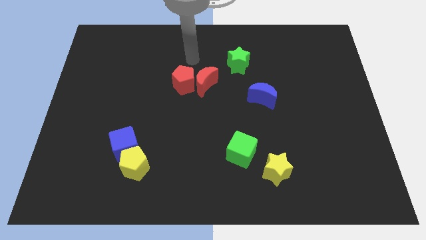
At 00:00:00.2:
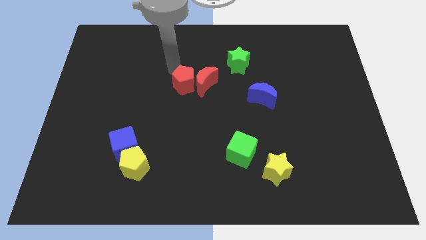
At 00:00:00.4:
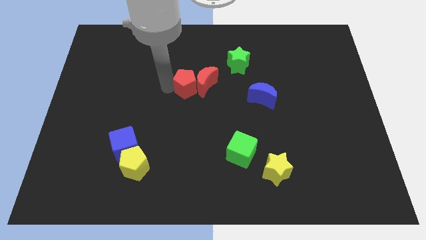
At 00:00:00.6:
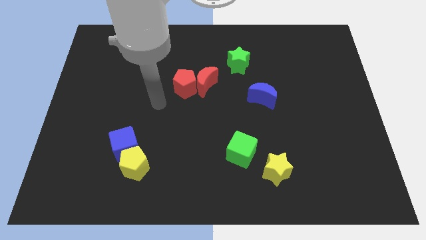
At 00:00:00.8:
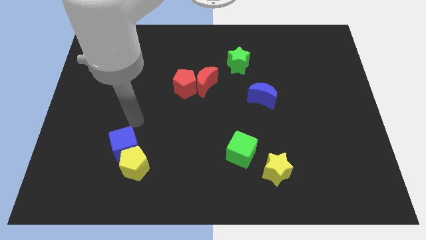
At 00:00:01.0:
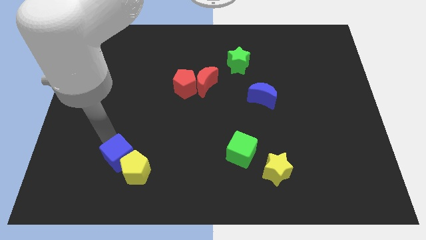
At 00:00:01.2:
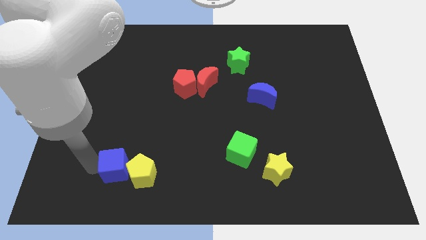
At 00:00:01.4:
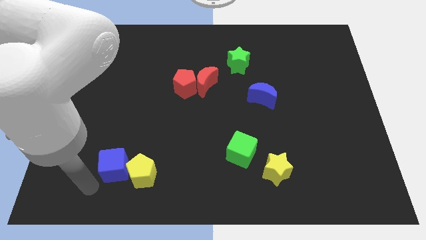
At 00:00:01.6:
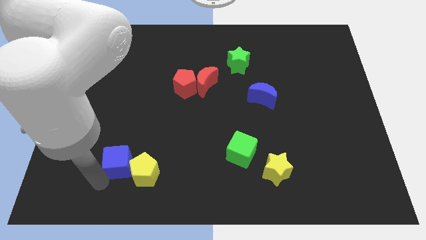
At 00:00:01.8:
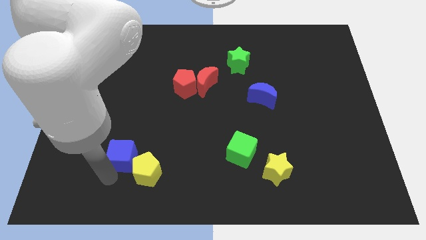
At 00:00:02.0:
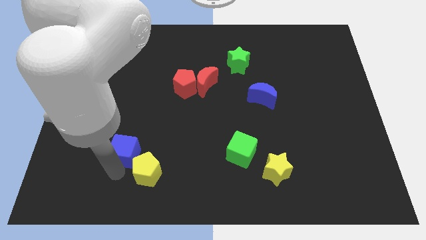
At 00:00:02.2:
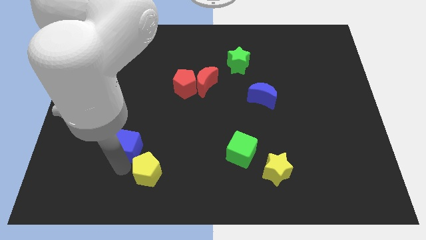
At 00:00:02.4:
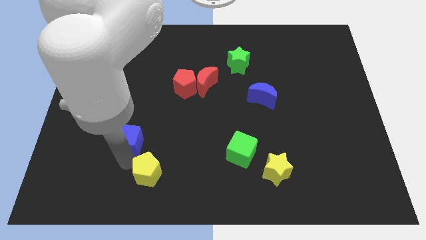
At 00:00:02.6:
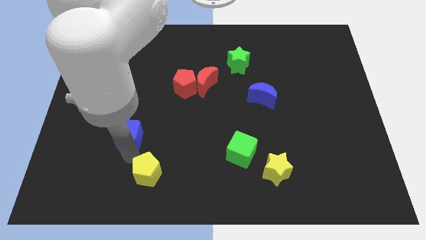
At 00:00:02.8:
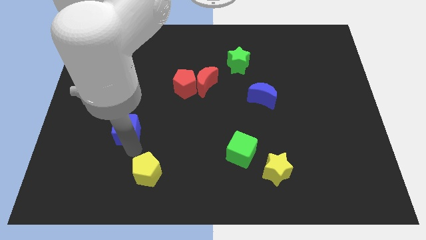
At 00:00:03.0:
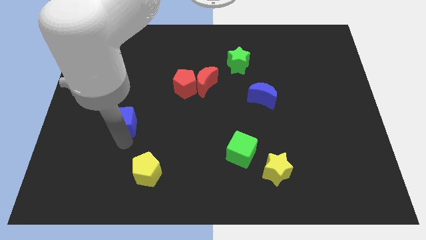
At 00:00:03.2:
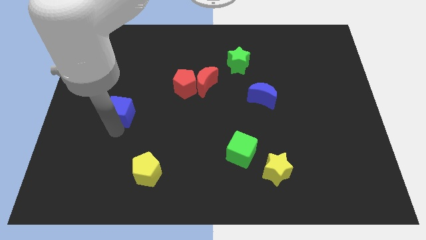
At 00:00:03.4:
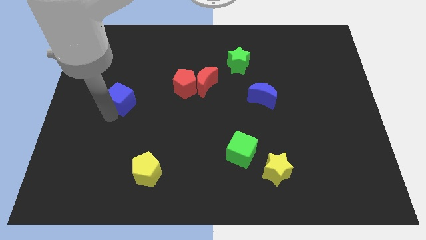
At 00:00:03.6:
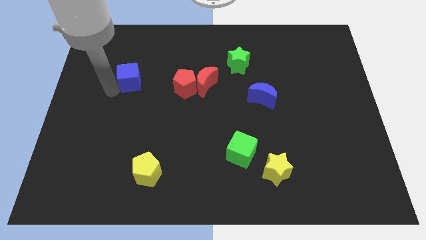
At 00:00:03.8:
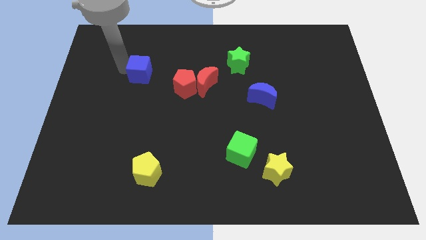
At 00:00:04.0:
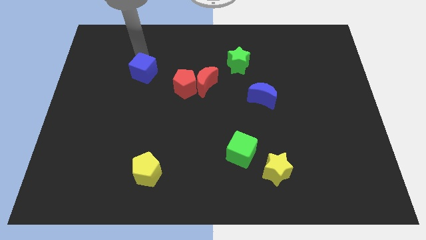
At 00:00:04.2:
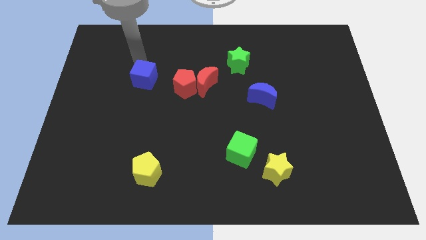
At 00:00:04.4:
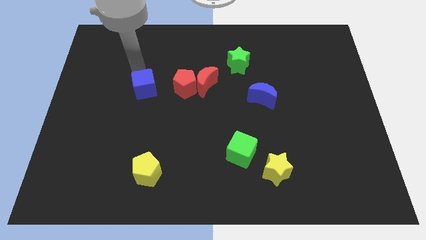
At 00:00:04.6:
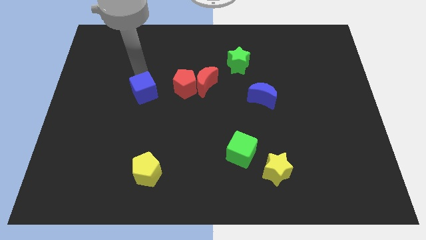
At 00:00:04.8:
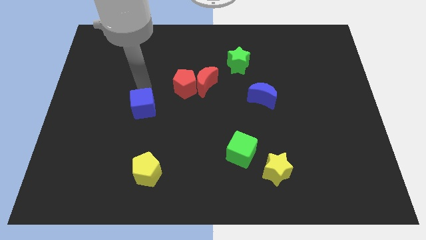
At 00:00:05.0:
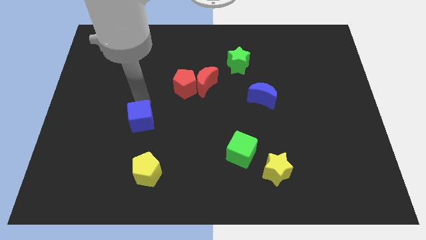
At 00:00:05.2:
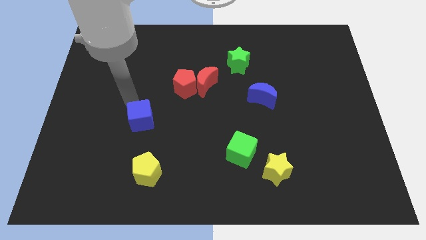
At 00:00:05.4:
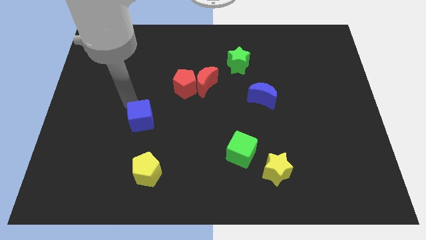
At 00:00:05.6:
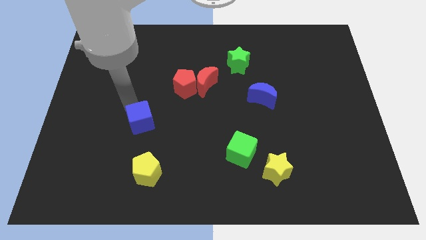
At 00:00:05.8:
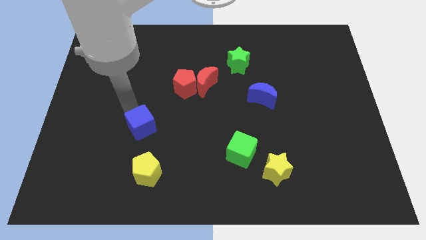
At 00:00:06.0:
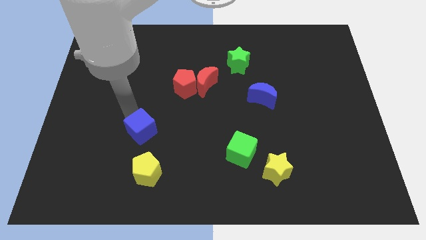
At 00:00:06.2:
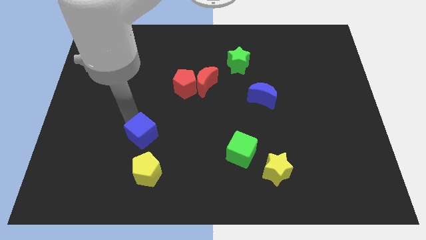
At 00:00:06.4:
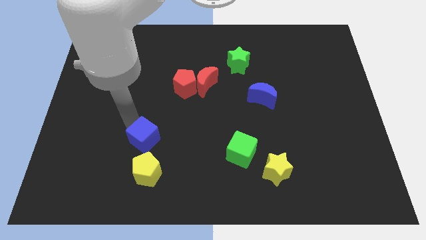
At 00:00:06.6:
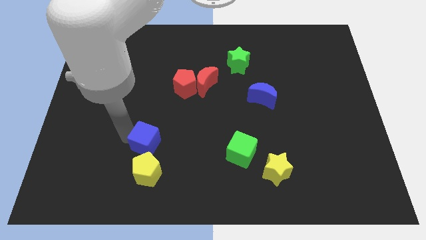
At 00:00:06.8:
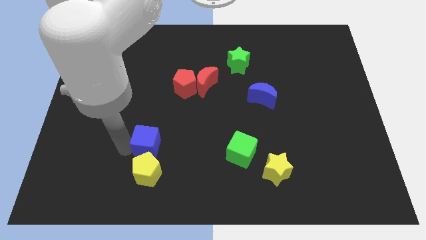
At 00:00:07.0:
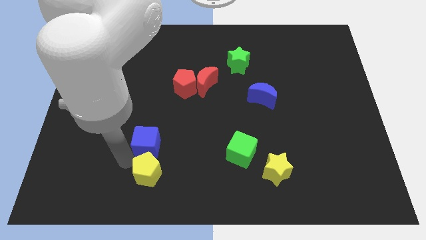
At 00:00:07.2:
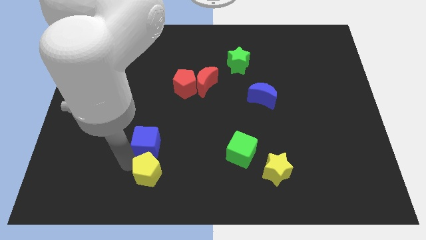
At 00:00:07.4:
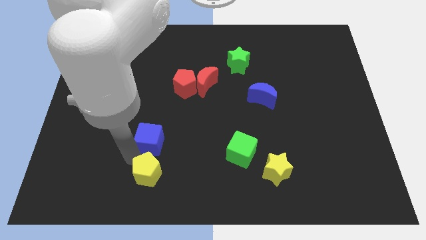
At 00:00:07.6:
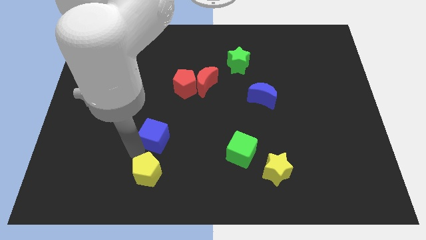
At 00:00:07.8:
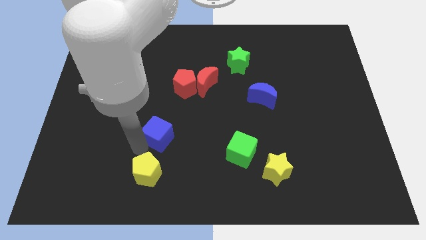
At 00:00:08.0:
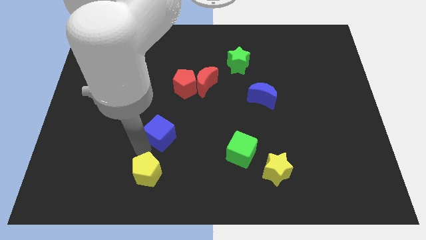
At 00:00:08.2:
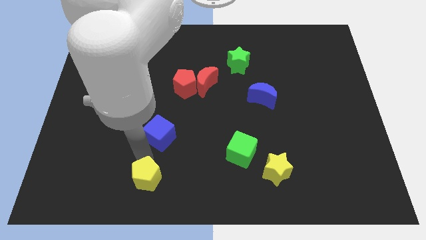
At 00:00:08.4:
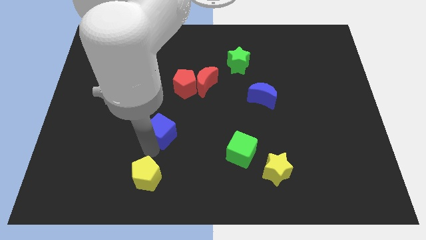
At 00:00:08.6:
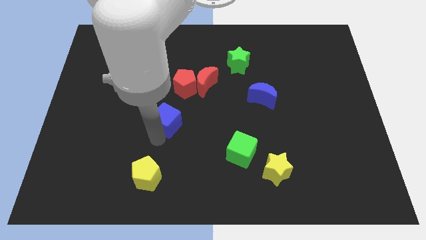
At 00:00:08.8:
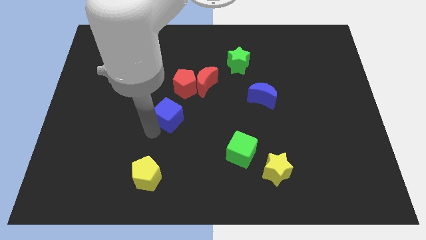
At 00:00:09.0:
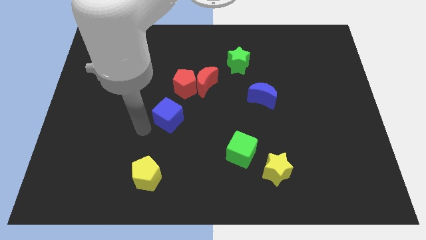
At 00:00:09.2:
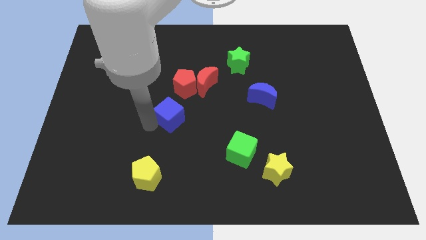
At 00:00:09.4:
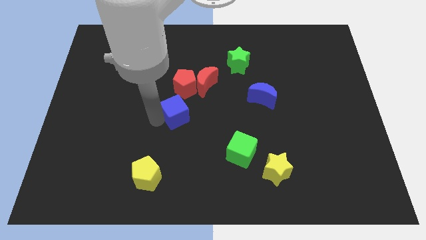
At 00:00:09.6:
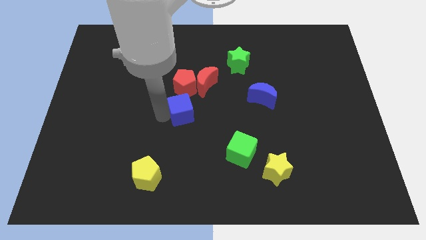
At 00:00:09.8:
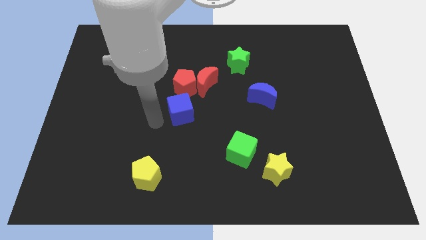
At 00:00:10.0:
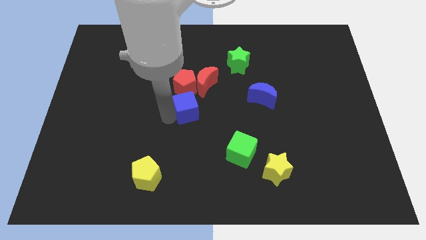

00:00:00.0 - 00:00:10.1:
put the blue cube diagonally down and to the right of the red pentagon

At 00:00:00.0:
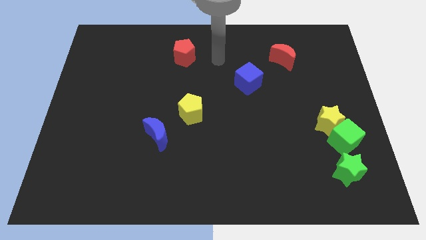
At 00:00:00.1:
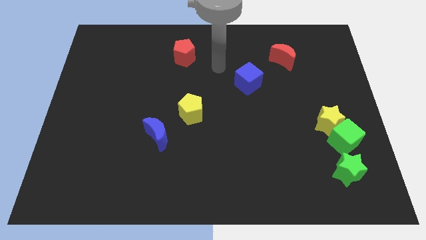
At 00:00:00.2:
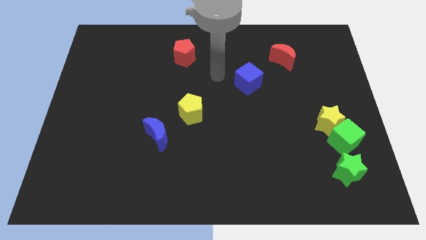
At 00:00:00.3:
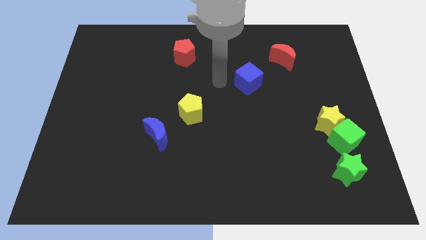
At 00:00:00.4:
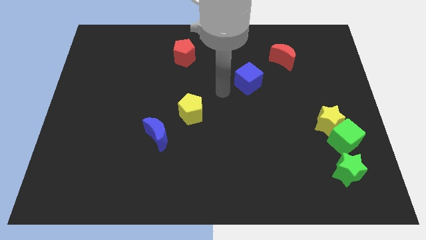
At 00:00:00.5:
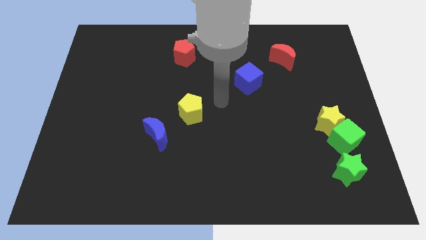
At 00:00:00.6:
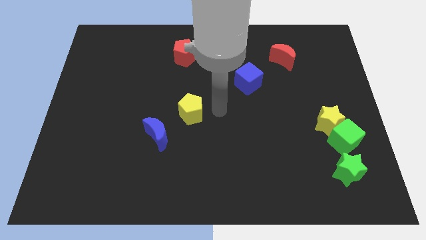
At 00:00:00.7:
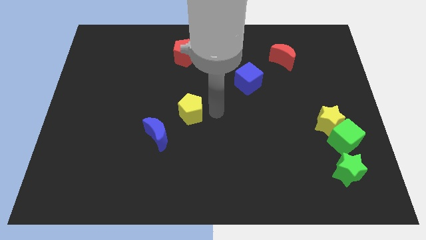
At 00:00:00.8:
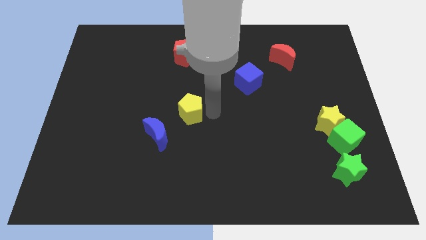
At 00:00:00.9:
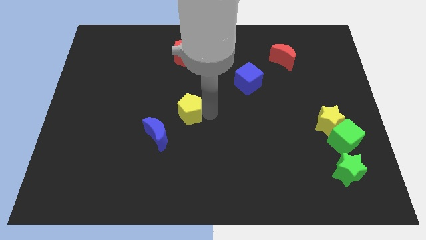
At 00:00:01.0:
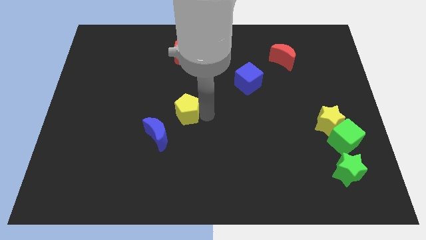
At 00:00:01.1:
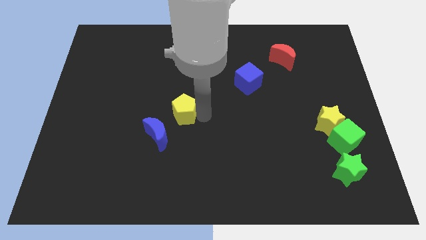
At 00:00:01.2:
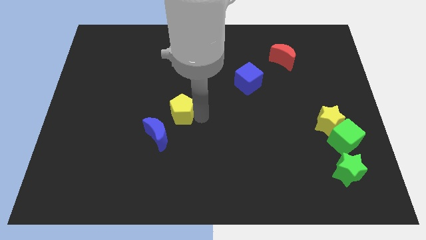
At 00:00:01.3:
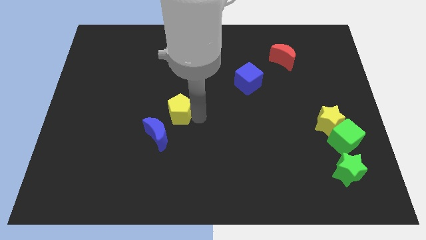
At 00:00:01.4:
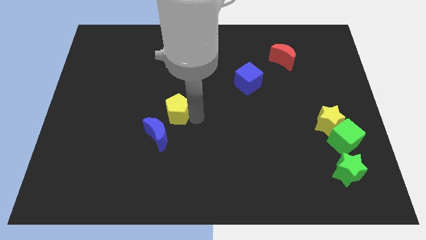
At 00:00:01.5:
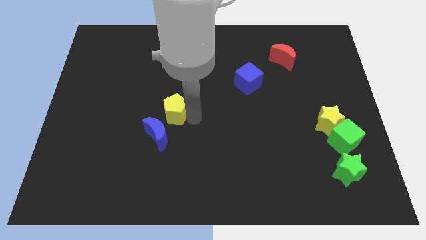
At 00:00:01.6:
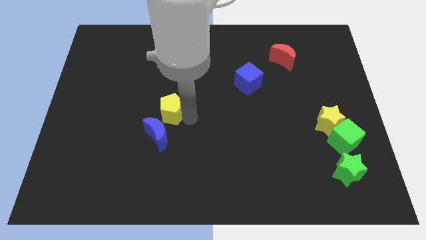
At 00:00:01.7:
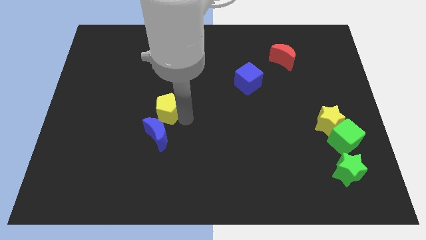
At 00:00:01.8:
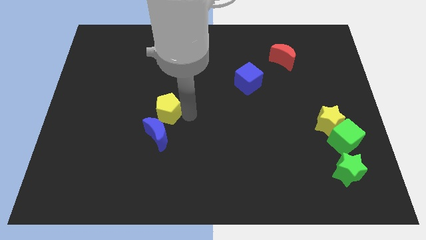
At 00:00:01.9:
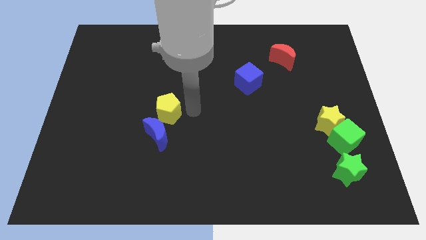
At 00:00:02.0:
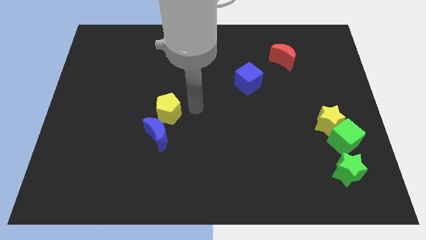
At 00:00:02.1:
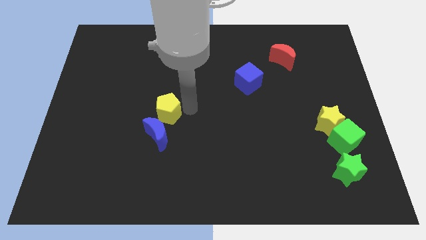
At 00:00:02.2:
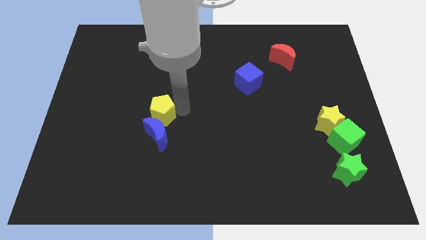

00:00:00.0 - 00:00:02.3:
push the yellow pentagon to the top left of the blue moon

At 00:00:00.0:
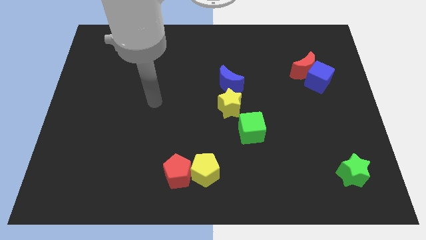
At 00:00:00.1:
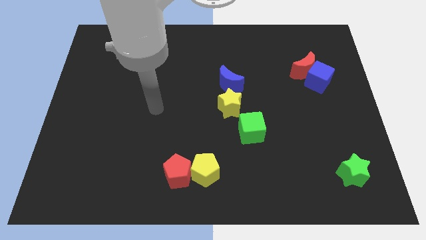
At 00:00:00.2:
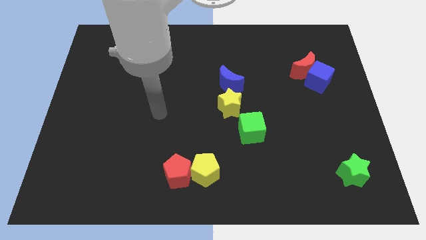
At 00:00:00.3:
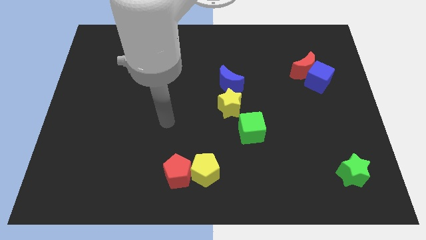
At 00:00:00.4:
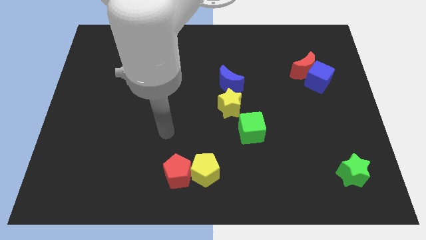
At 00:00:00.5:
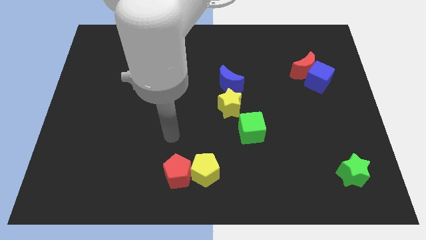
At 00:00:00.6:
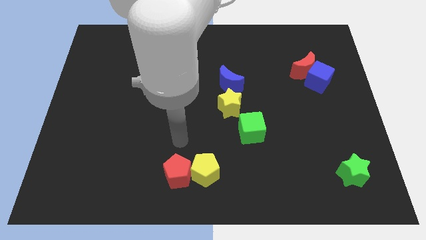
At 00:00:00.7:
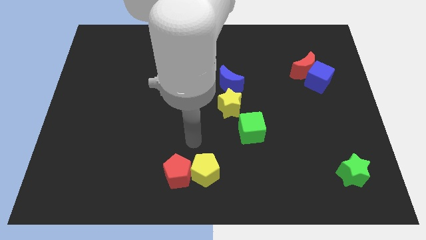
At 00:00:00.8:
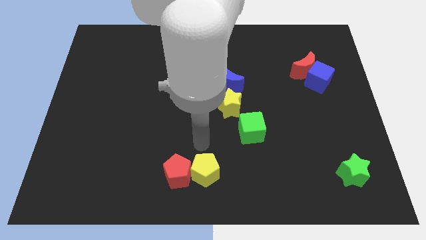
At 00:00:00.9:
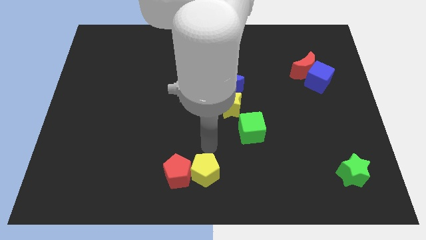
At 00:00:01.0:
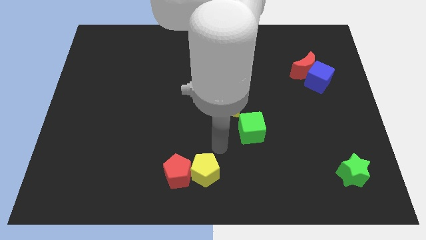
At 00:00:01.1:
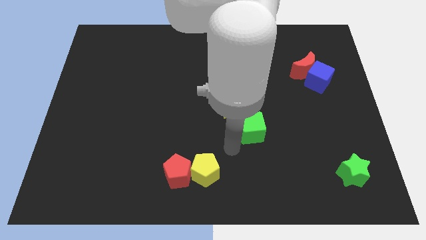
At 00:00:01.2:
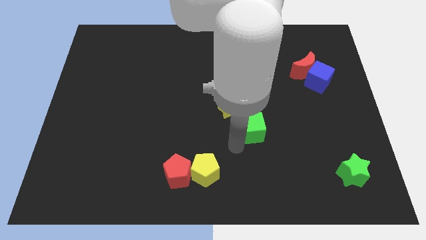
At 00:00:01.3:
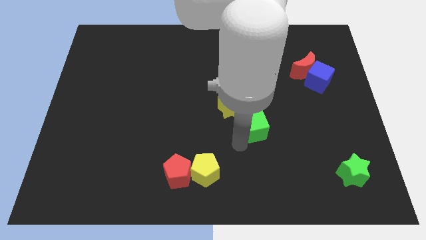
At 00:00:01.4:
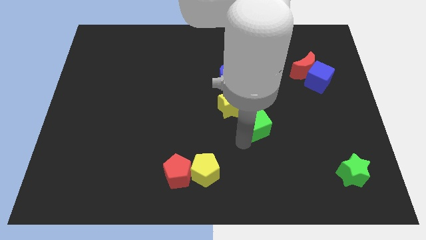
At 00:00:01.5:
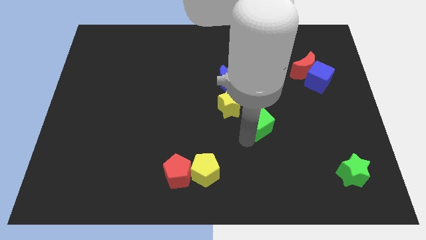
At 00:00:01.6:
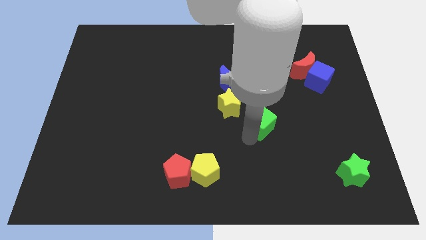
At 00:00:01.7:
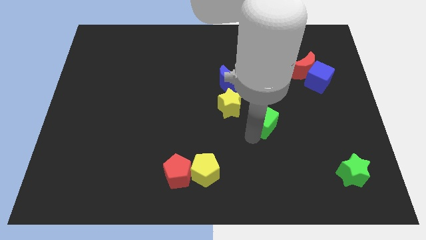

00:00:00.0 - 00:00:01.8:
push the green cube to the right side of the yellow star
